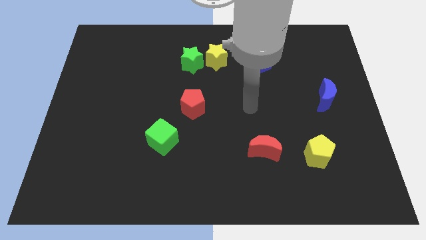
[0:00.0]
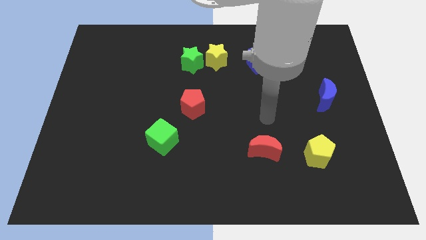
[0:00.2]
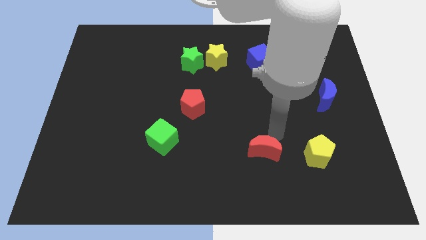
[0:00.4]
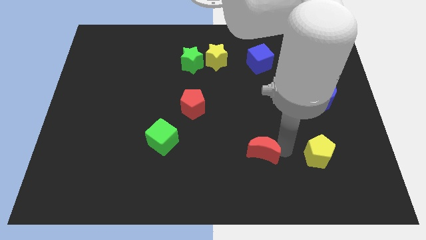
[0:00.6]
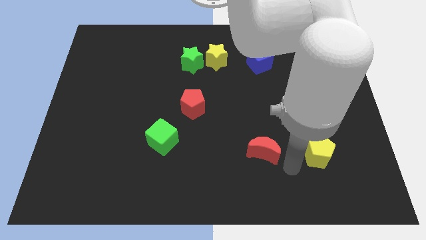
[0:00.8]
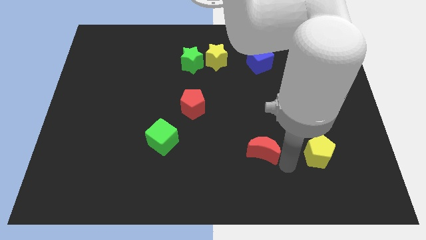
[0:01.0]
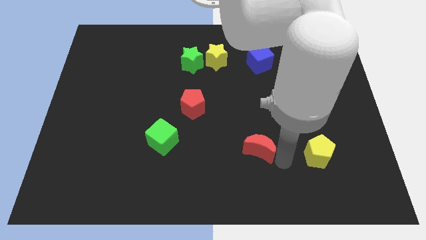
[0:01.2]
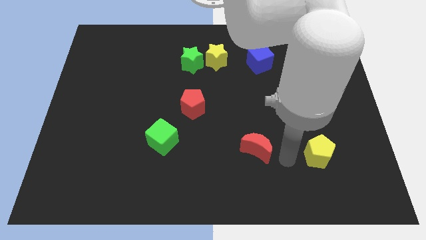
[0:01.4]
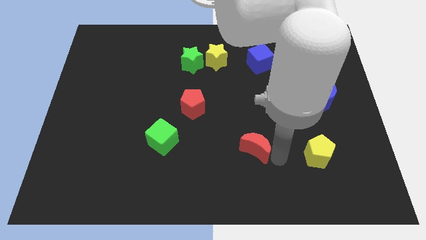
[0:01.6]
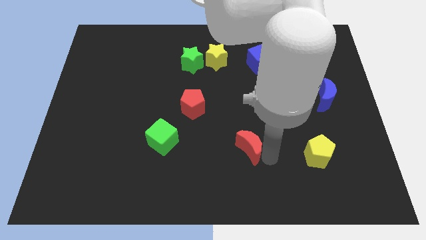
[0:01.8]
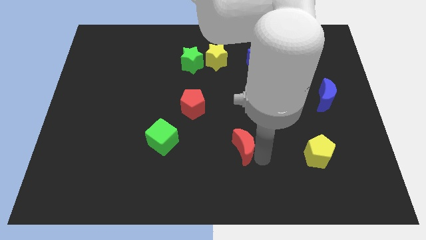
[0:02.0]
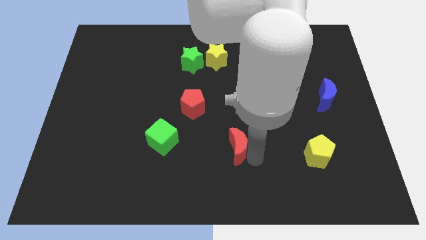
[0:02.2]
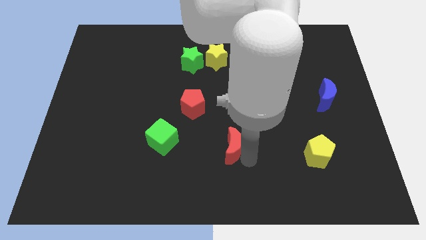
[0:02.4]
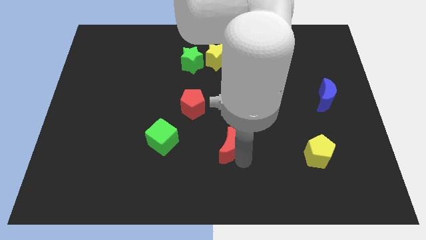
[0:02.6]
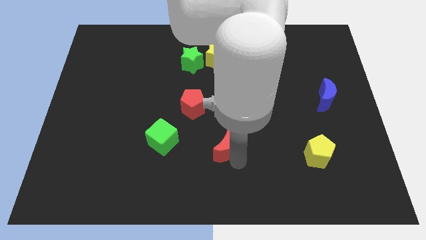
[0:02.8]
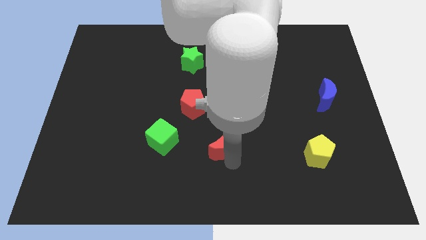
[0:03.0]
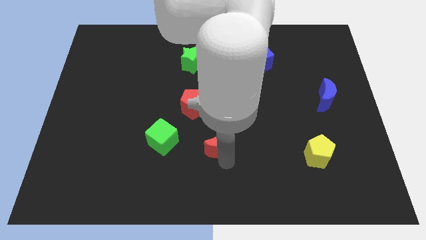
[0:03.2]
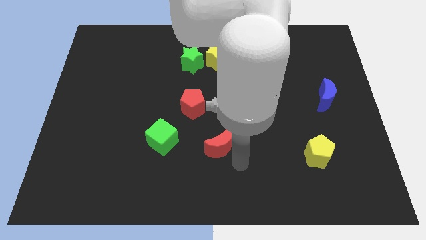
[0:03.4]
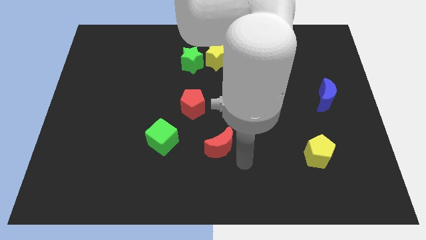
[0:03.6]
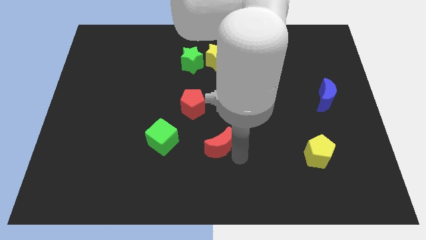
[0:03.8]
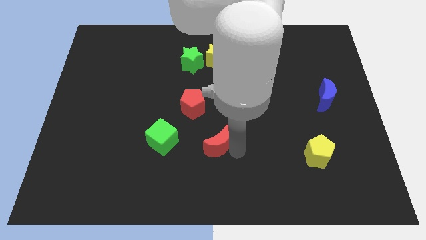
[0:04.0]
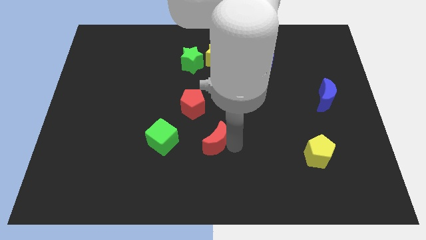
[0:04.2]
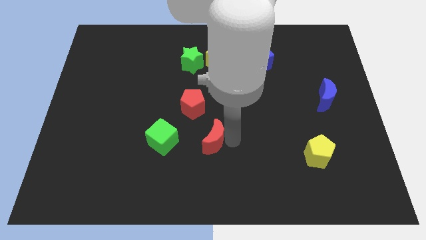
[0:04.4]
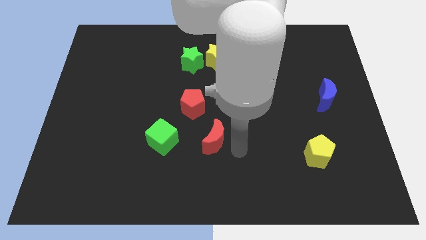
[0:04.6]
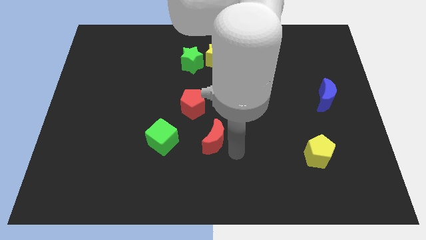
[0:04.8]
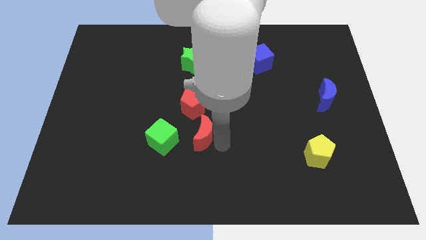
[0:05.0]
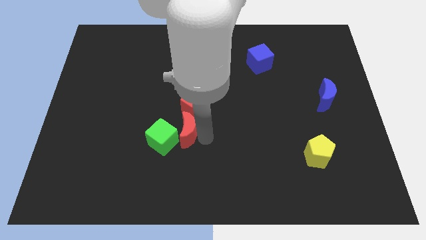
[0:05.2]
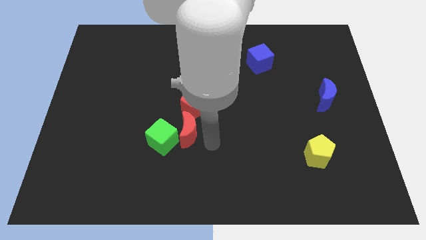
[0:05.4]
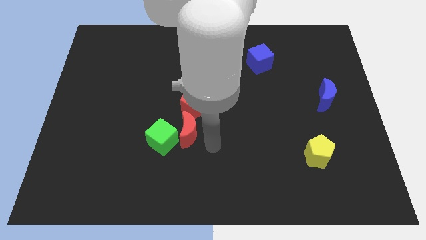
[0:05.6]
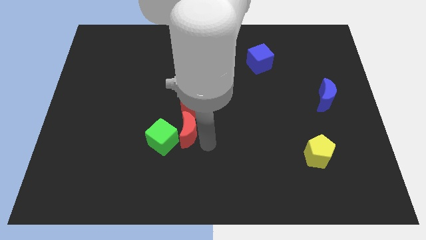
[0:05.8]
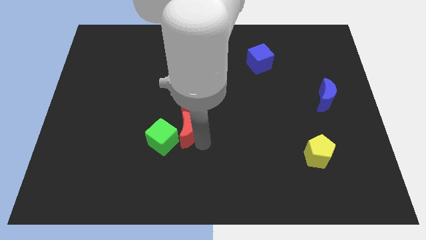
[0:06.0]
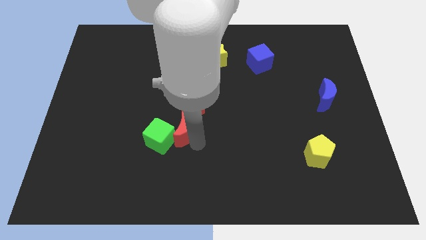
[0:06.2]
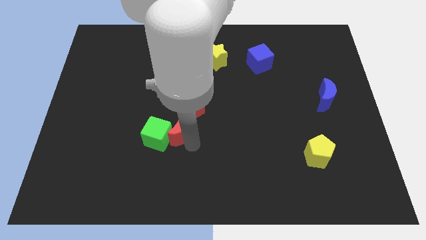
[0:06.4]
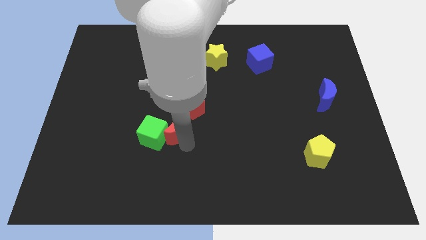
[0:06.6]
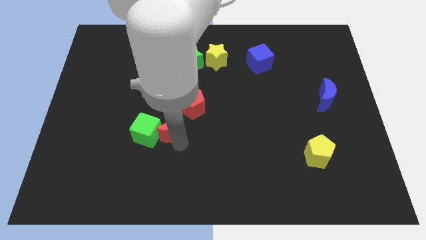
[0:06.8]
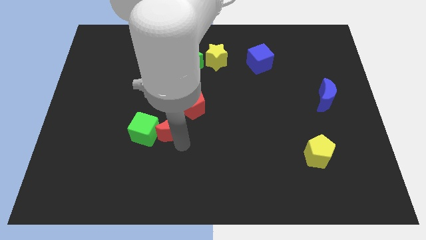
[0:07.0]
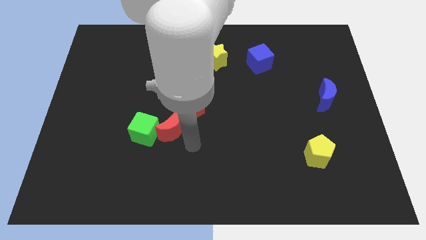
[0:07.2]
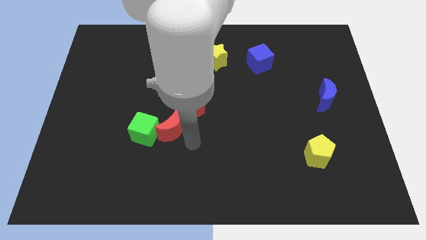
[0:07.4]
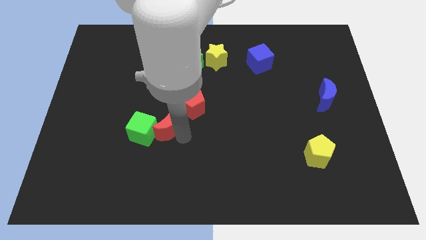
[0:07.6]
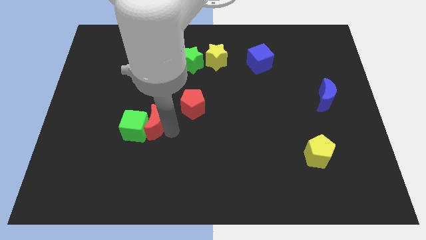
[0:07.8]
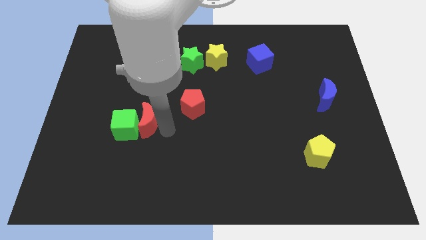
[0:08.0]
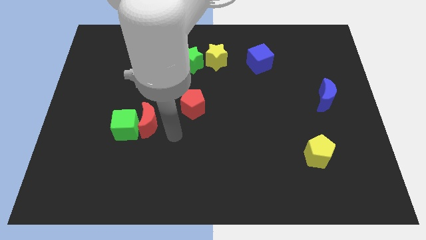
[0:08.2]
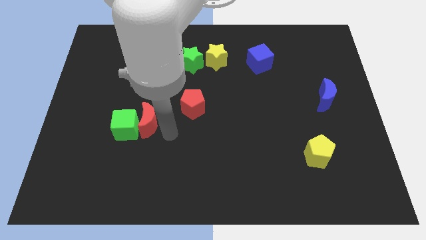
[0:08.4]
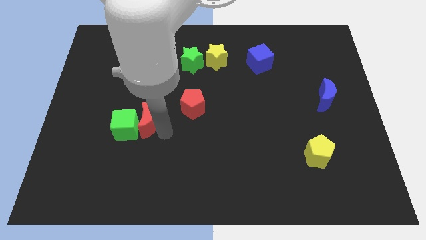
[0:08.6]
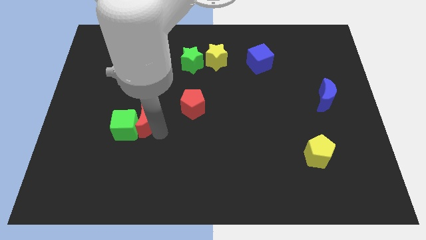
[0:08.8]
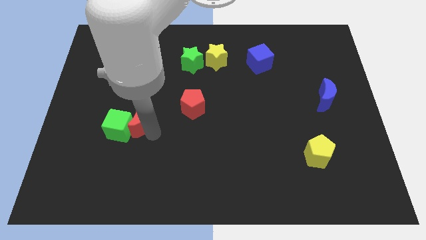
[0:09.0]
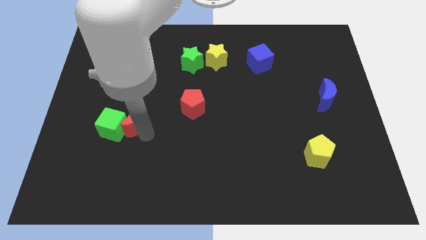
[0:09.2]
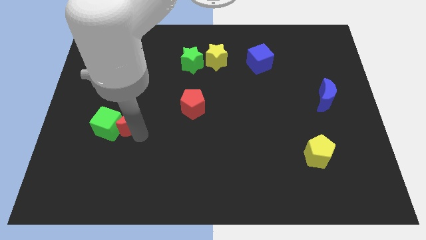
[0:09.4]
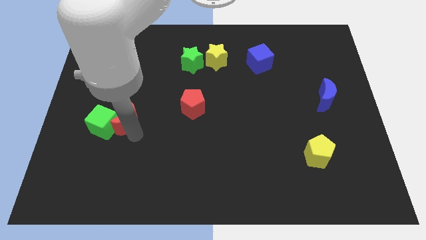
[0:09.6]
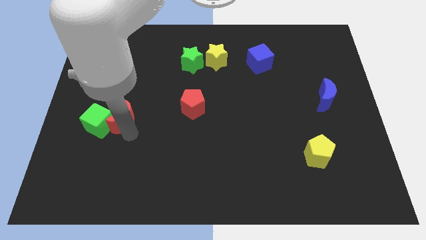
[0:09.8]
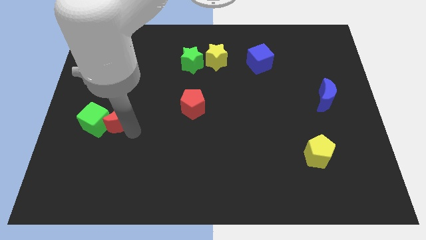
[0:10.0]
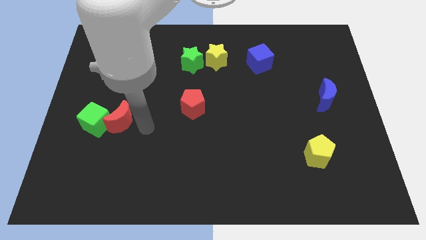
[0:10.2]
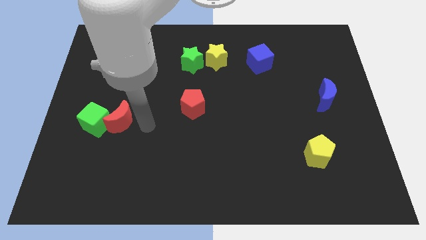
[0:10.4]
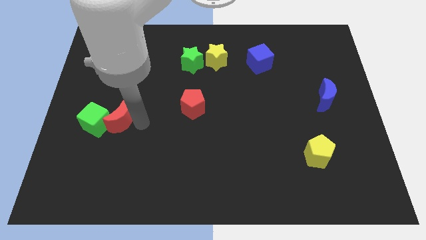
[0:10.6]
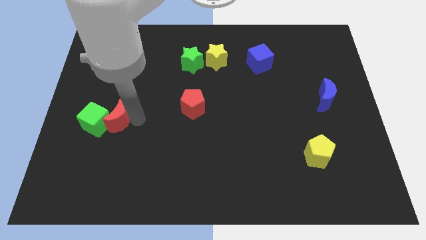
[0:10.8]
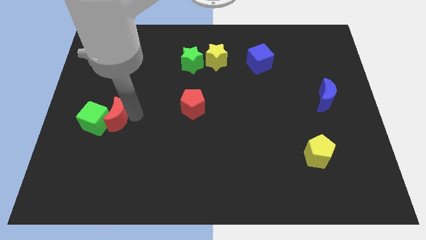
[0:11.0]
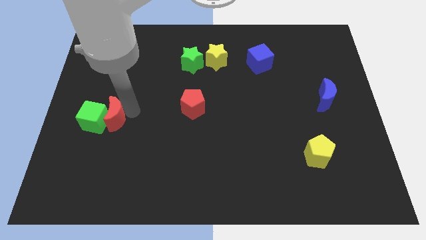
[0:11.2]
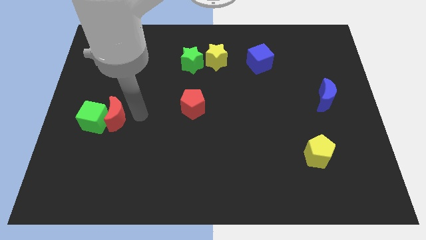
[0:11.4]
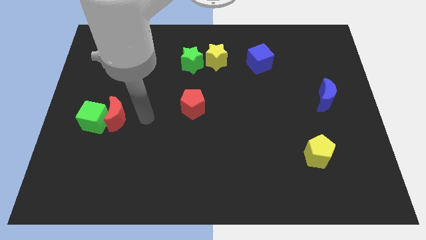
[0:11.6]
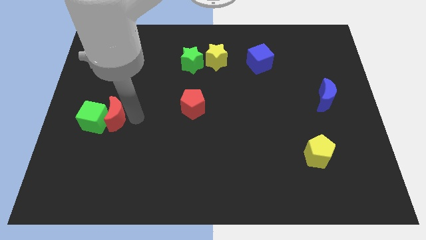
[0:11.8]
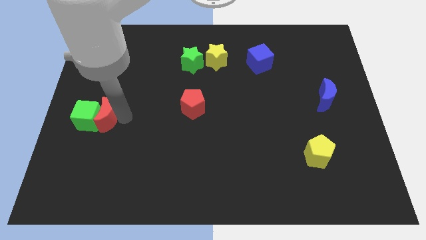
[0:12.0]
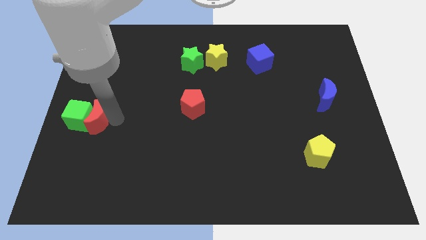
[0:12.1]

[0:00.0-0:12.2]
put the red moon to the center left
